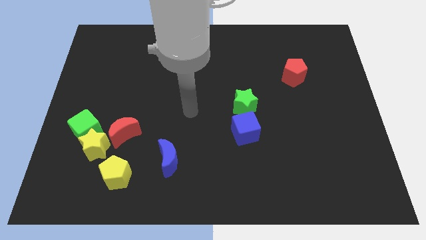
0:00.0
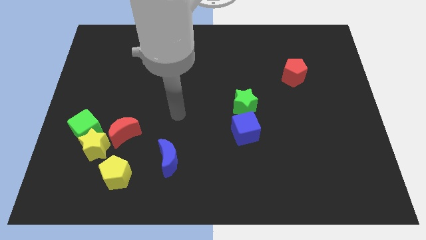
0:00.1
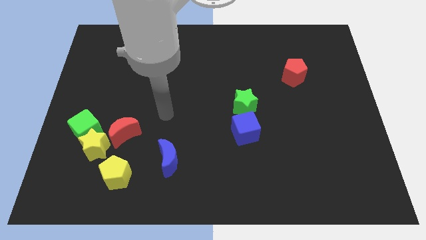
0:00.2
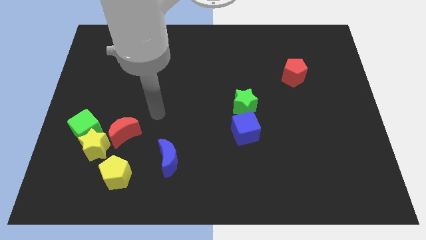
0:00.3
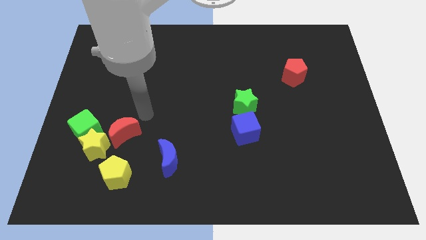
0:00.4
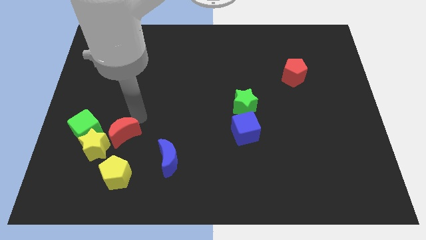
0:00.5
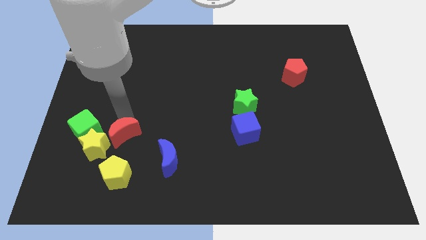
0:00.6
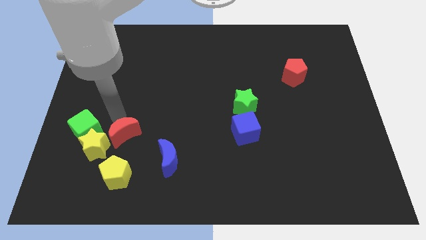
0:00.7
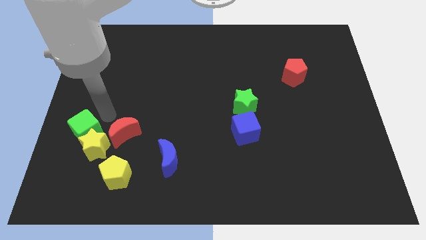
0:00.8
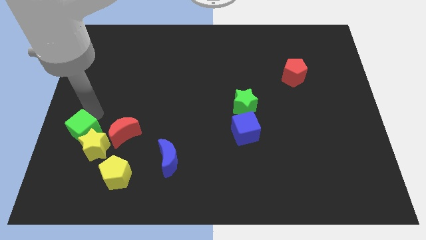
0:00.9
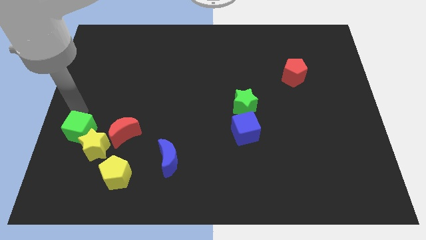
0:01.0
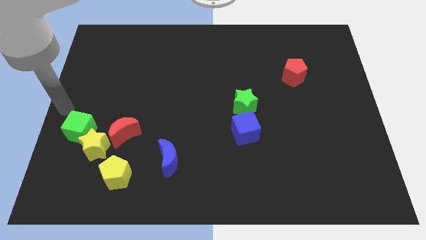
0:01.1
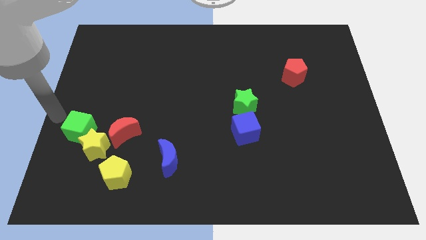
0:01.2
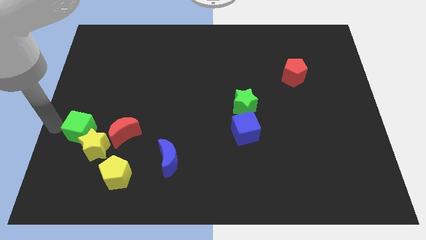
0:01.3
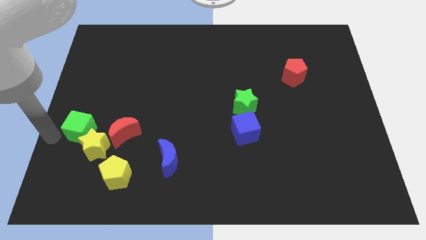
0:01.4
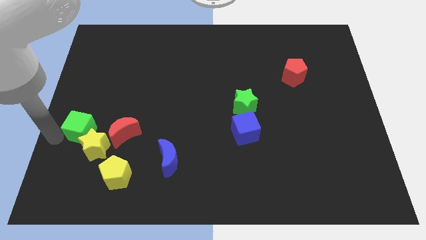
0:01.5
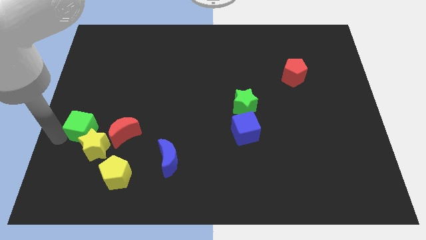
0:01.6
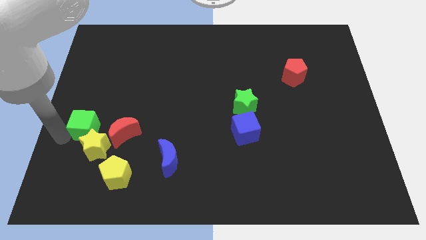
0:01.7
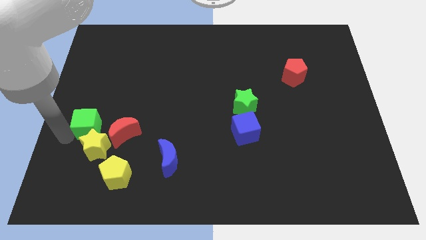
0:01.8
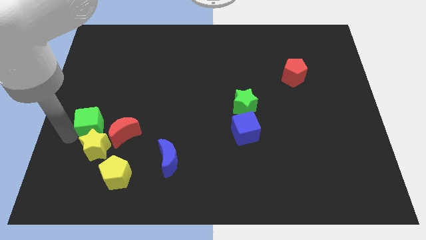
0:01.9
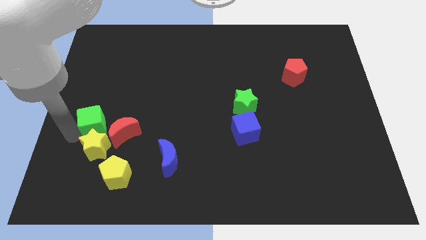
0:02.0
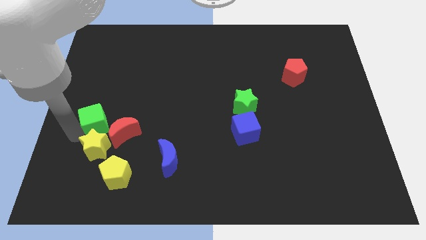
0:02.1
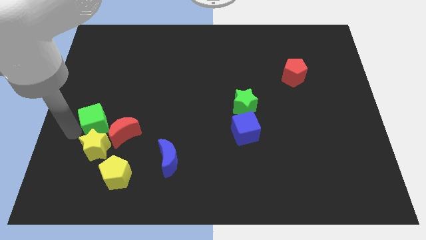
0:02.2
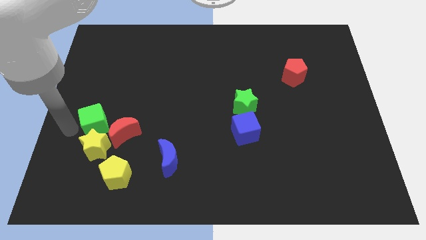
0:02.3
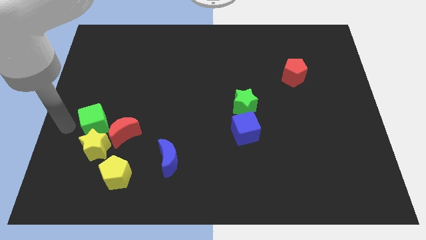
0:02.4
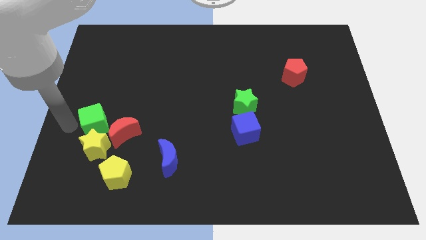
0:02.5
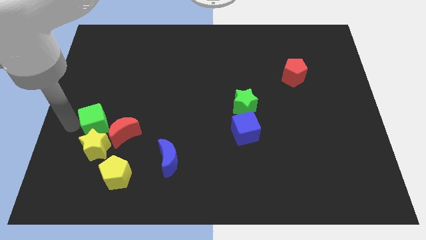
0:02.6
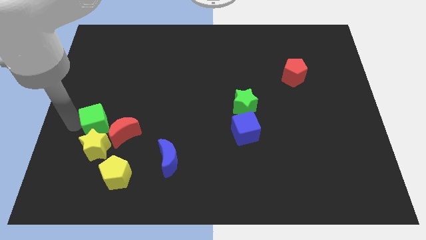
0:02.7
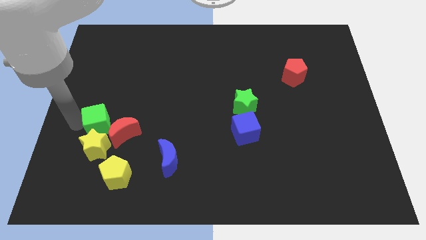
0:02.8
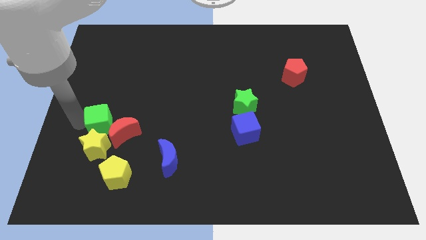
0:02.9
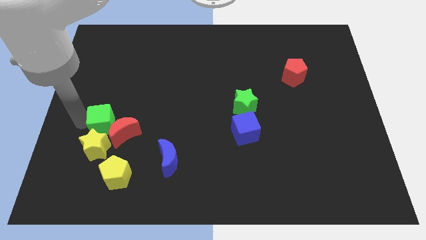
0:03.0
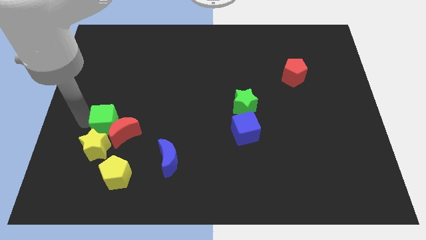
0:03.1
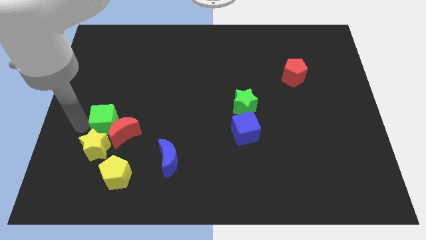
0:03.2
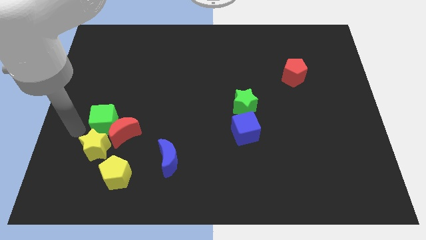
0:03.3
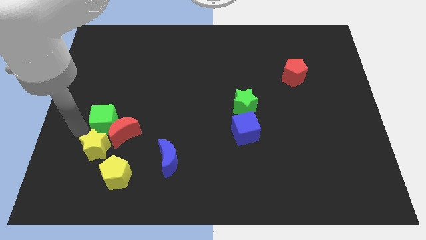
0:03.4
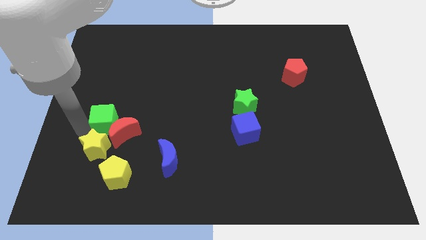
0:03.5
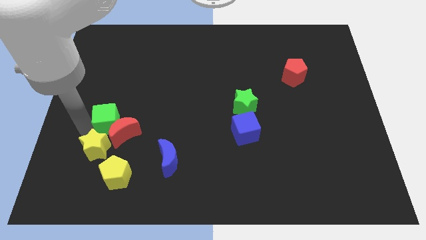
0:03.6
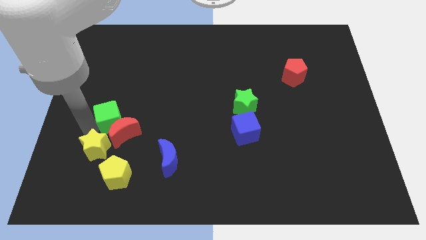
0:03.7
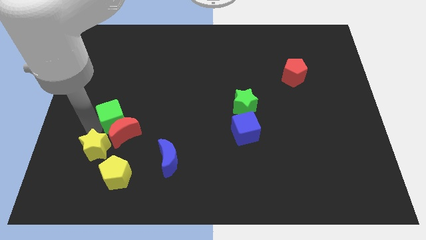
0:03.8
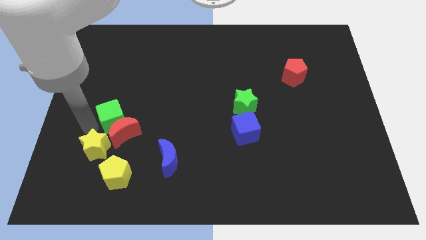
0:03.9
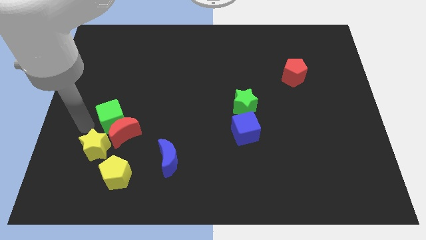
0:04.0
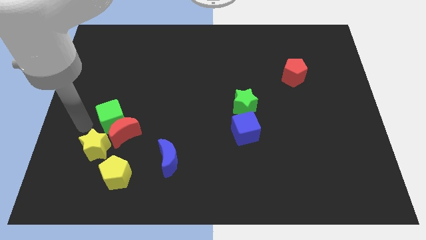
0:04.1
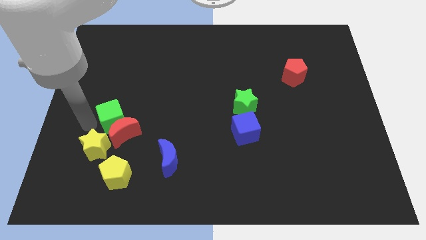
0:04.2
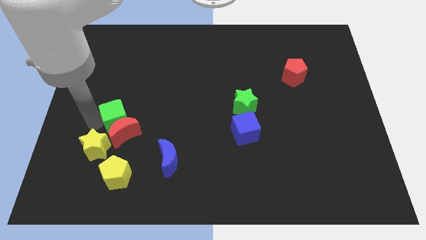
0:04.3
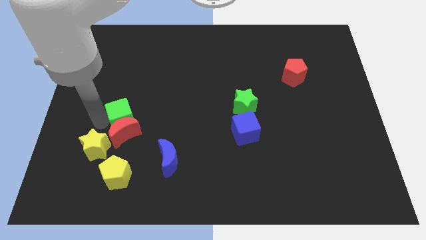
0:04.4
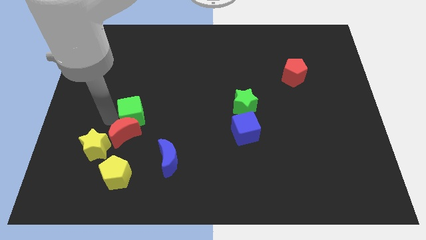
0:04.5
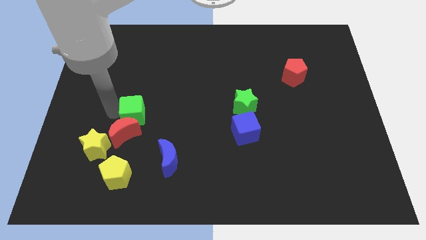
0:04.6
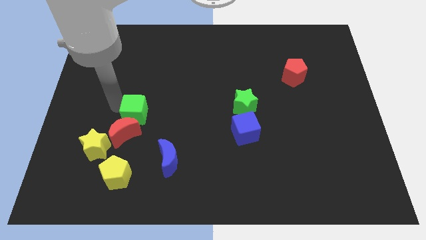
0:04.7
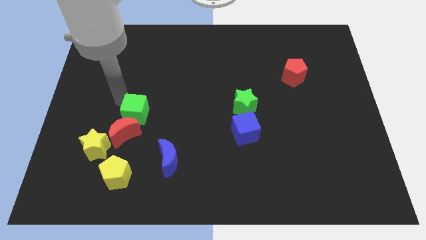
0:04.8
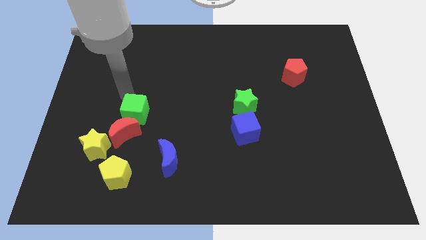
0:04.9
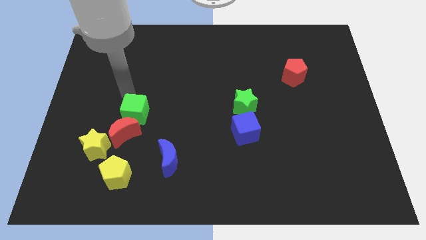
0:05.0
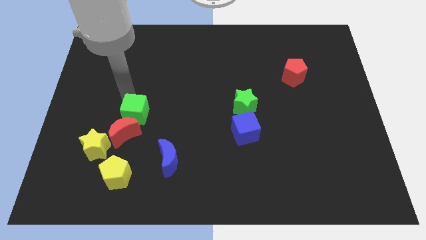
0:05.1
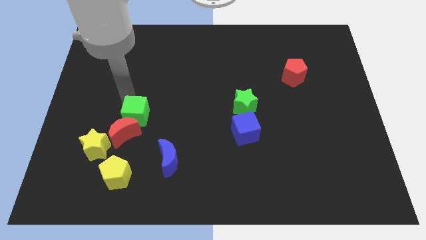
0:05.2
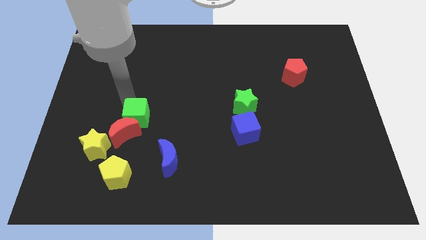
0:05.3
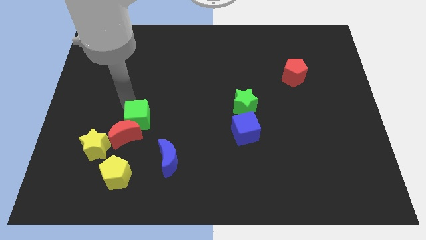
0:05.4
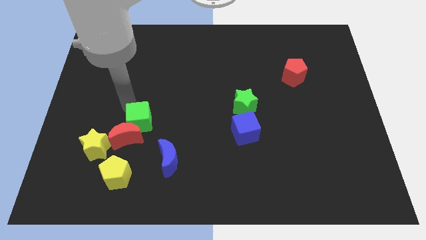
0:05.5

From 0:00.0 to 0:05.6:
move the green cube diagonally up and to the left of the blue moon

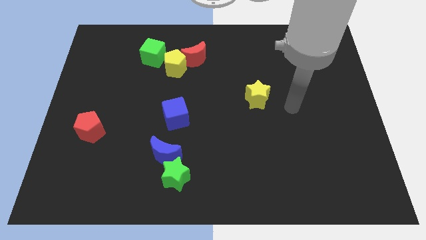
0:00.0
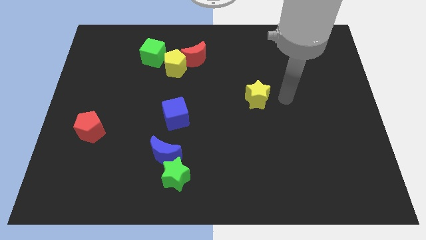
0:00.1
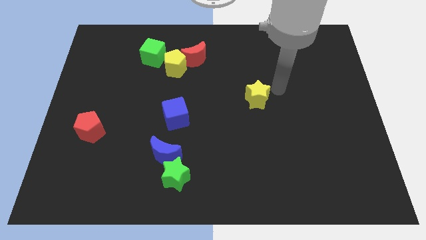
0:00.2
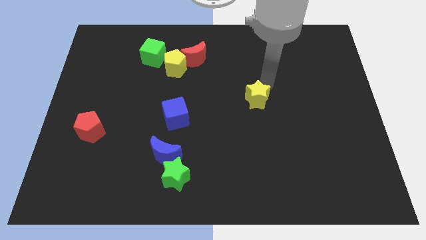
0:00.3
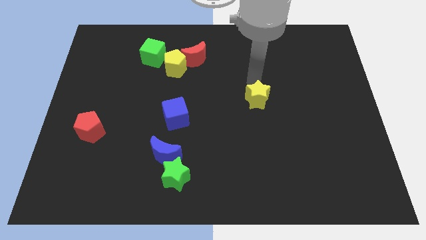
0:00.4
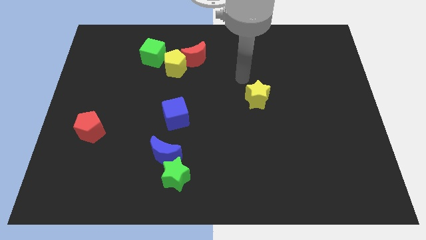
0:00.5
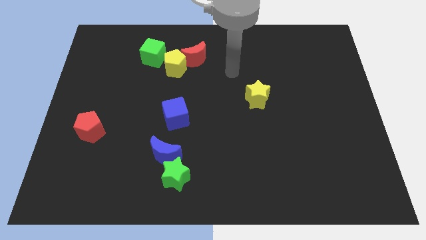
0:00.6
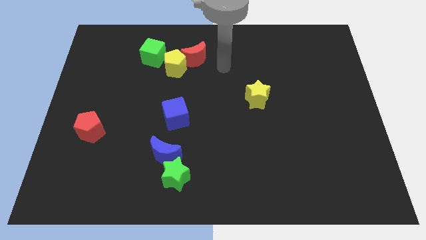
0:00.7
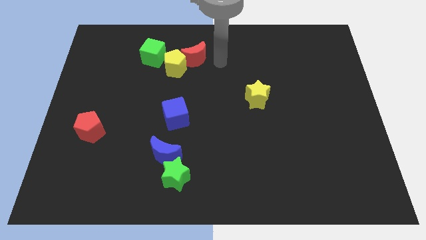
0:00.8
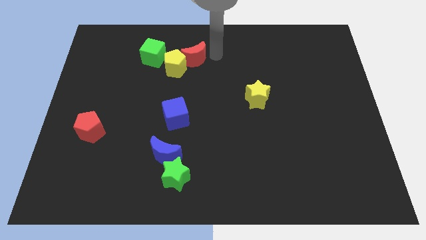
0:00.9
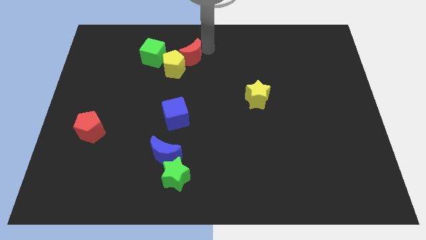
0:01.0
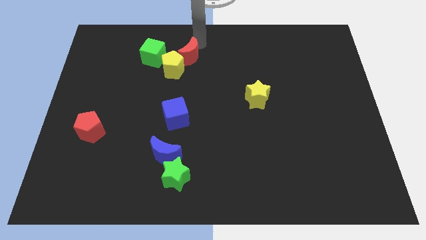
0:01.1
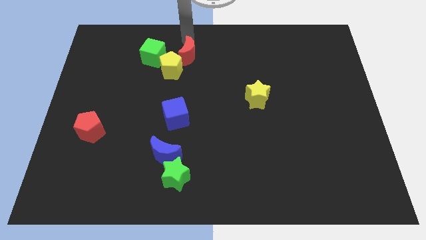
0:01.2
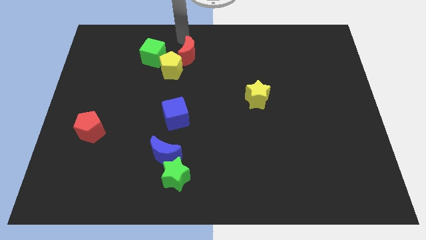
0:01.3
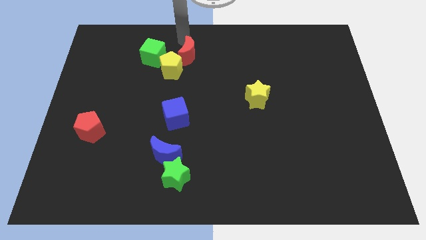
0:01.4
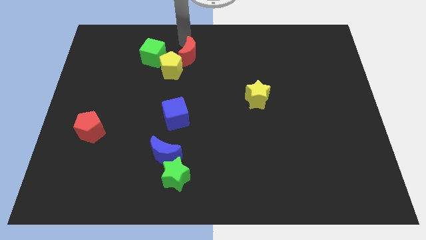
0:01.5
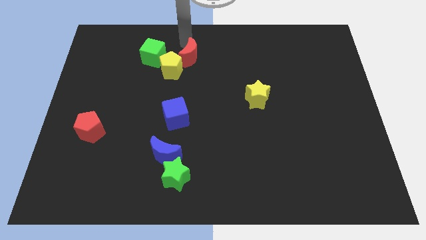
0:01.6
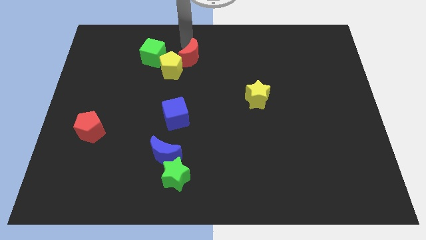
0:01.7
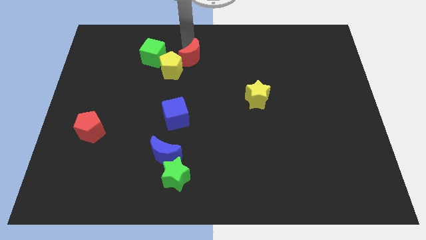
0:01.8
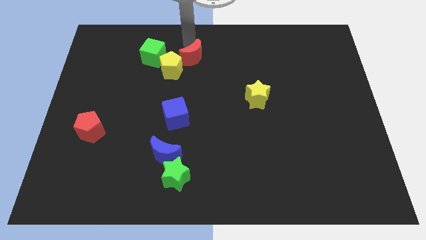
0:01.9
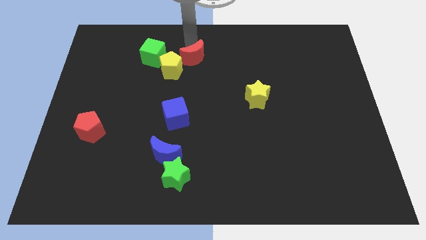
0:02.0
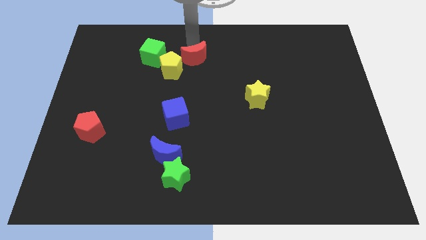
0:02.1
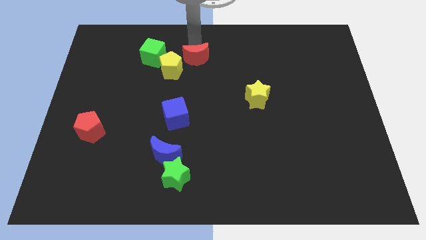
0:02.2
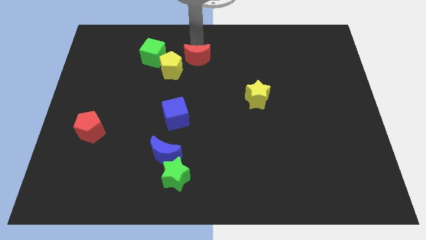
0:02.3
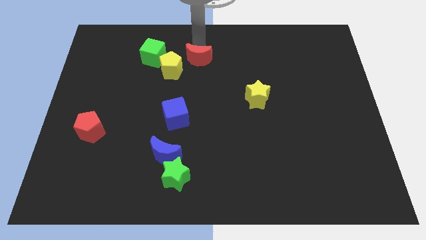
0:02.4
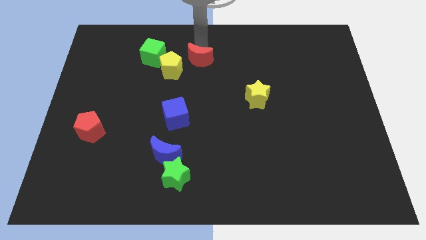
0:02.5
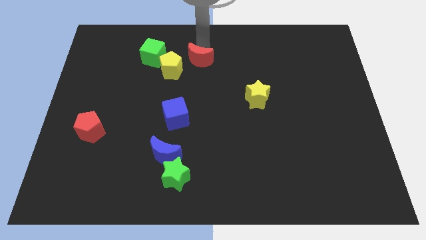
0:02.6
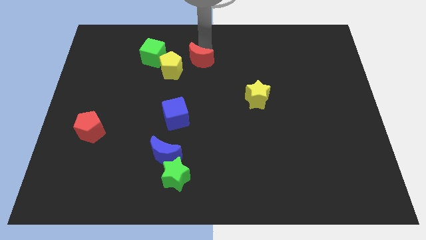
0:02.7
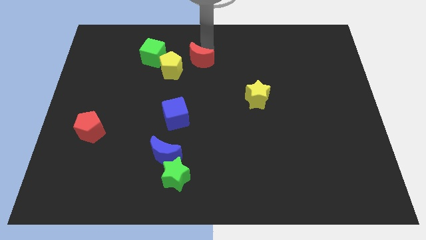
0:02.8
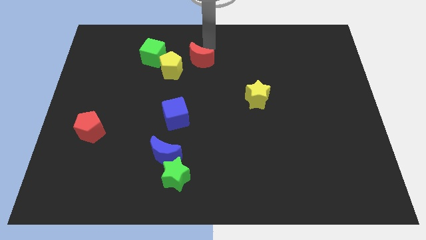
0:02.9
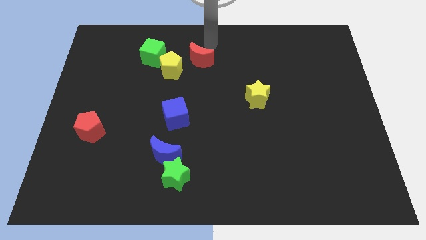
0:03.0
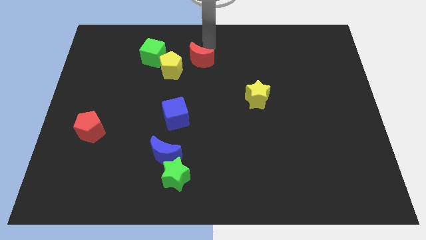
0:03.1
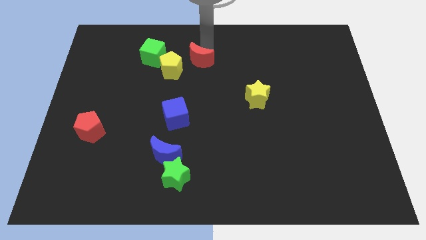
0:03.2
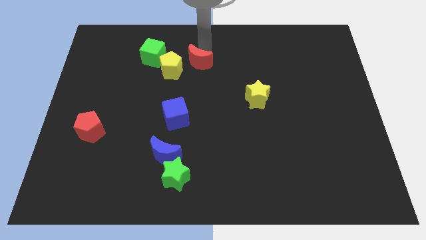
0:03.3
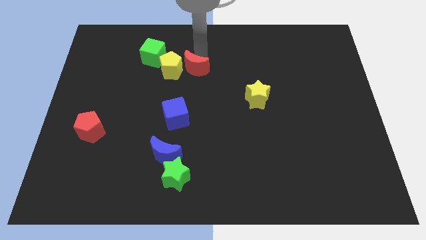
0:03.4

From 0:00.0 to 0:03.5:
slide the red moon to the bottom right side of the yellow pentagon
